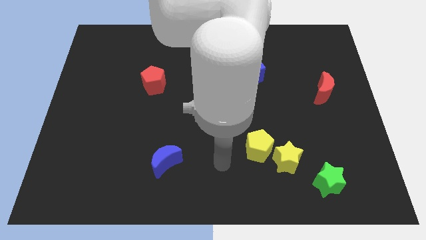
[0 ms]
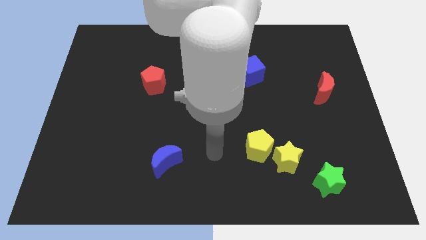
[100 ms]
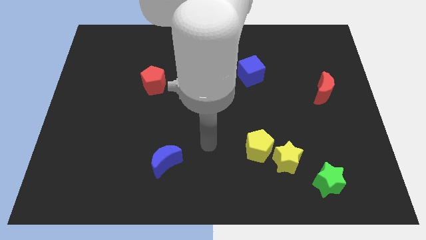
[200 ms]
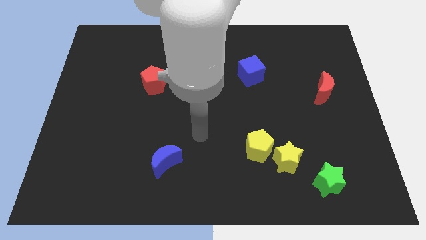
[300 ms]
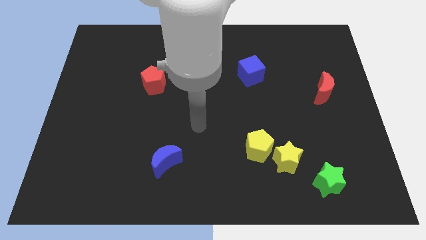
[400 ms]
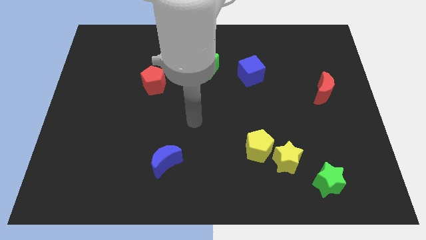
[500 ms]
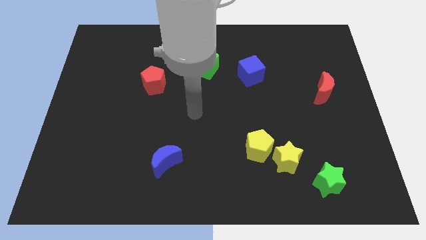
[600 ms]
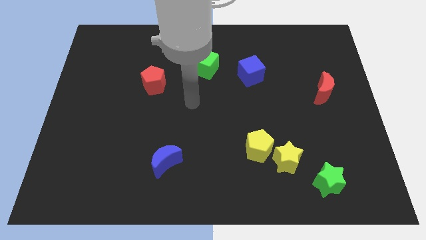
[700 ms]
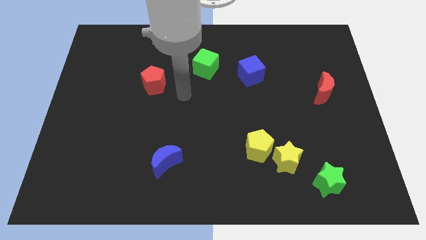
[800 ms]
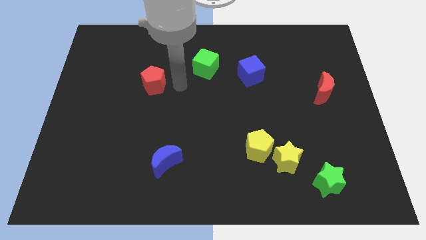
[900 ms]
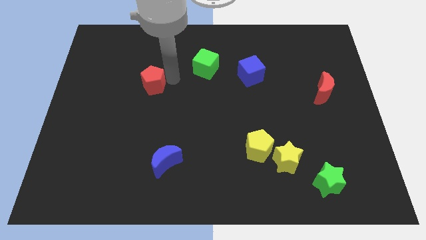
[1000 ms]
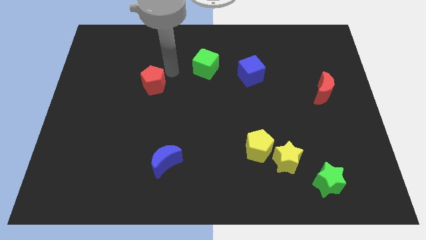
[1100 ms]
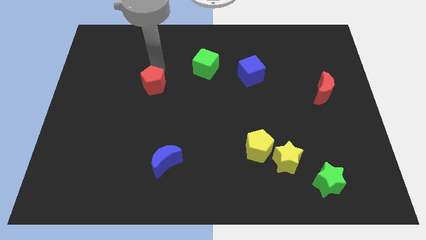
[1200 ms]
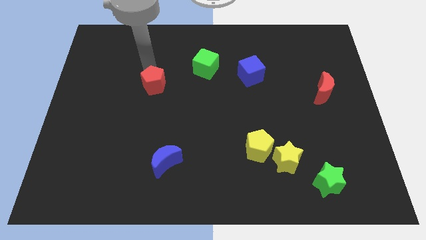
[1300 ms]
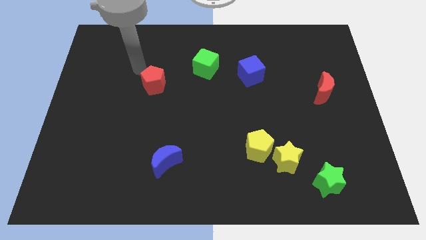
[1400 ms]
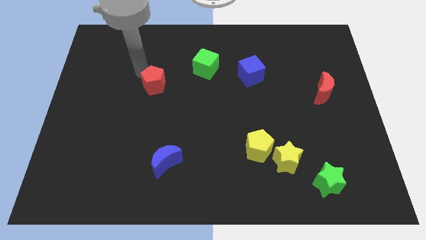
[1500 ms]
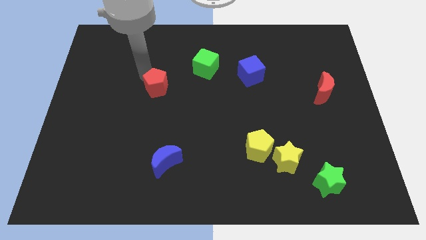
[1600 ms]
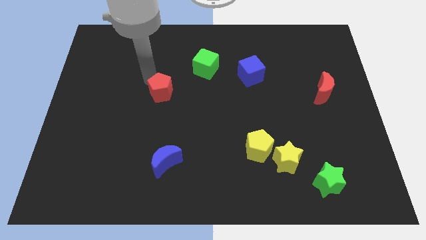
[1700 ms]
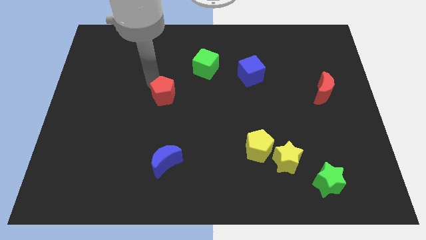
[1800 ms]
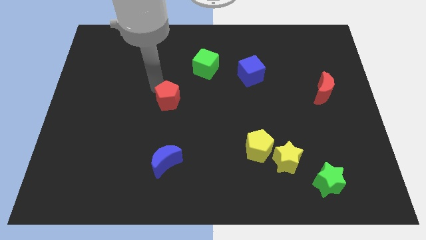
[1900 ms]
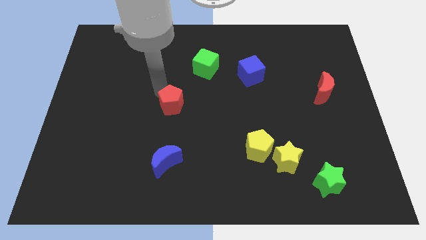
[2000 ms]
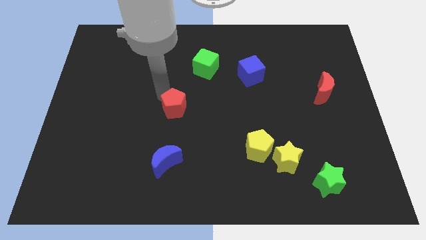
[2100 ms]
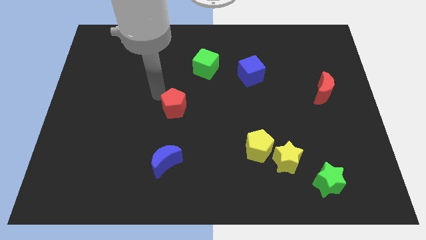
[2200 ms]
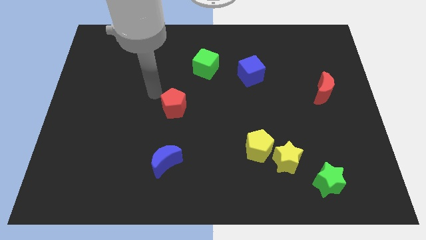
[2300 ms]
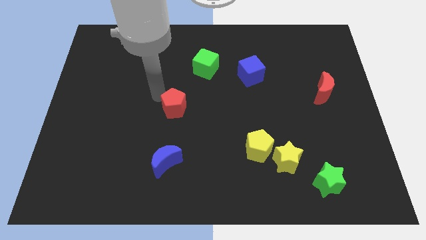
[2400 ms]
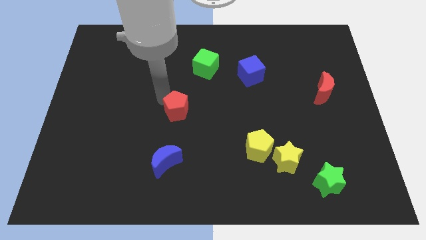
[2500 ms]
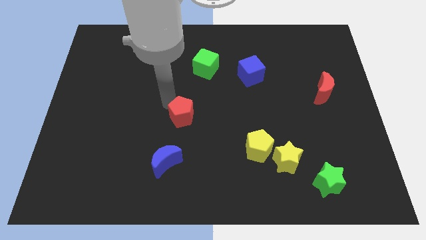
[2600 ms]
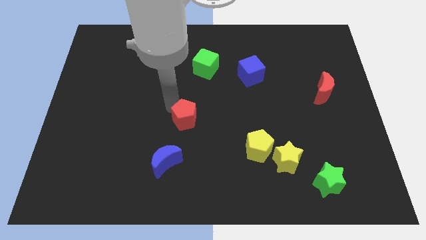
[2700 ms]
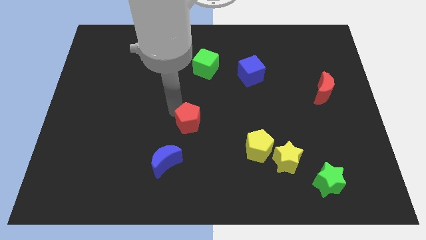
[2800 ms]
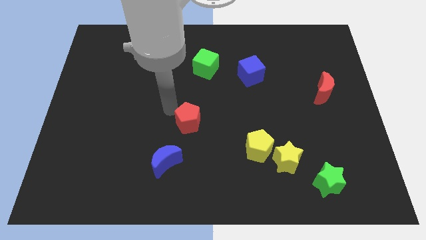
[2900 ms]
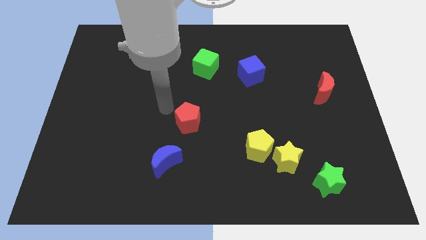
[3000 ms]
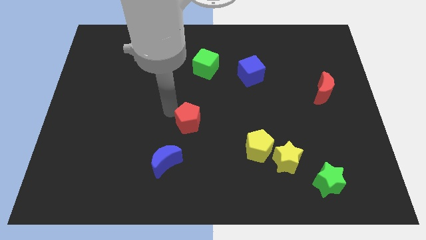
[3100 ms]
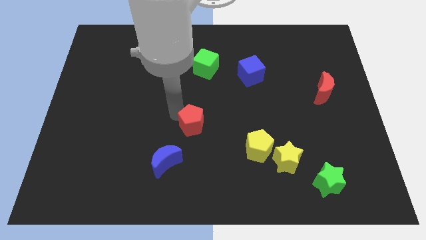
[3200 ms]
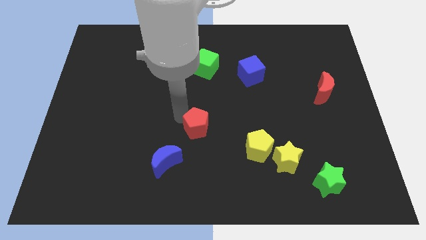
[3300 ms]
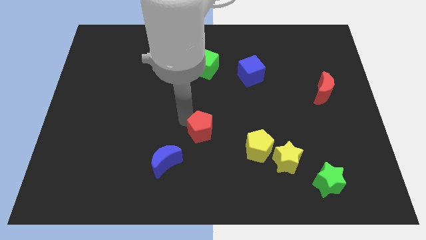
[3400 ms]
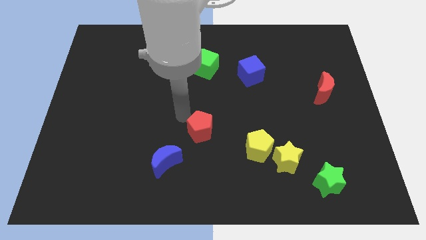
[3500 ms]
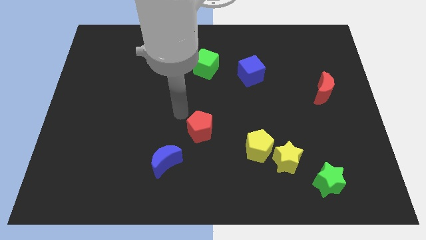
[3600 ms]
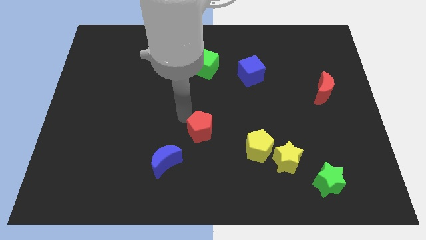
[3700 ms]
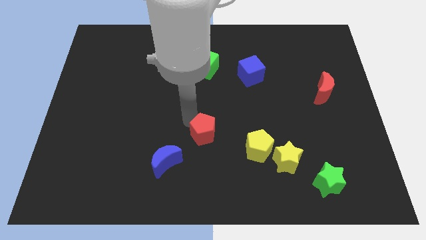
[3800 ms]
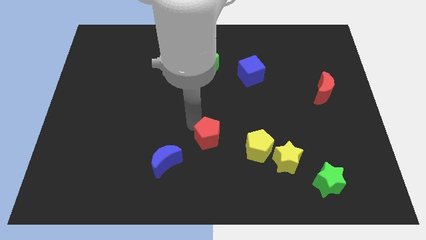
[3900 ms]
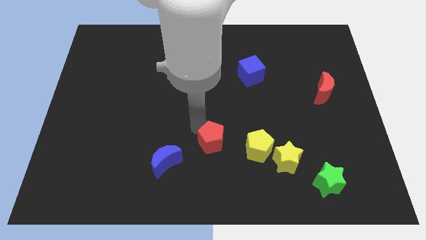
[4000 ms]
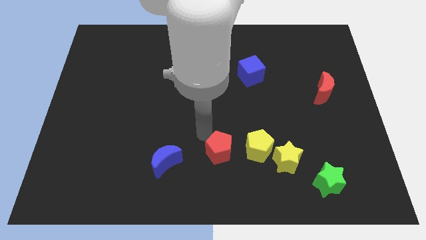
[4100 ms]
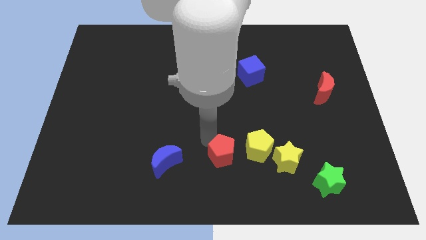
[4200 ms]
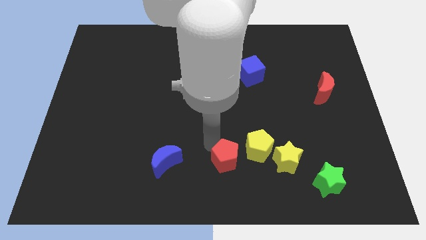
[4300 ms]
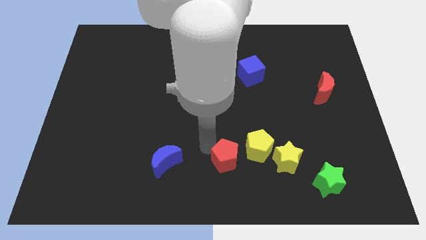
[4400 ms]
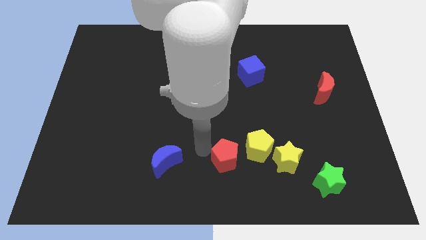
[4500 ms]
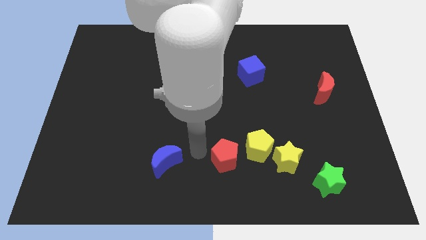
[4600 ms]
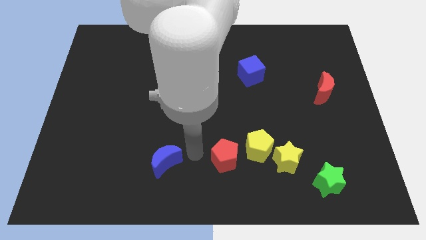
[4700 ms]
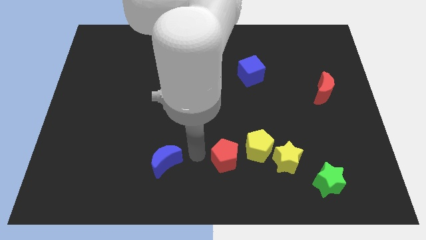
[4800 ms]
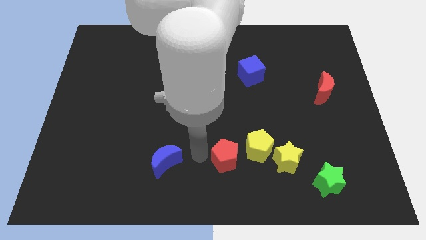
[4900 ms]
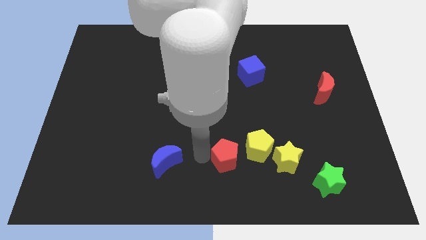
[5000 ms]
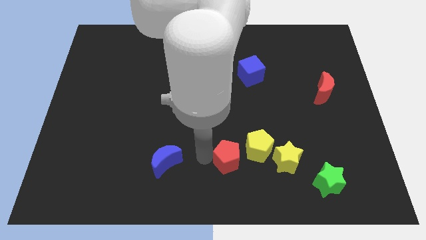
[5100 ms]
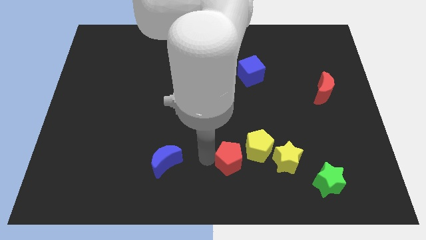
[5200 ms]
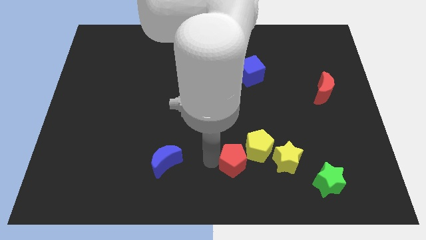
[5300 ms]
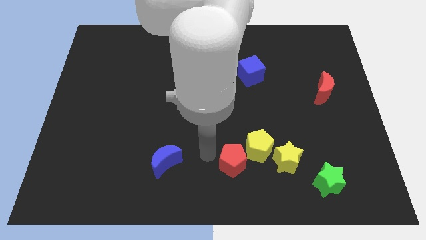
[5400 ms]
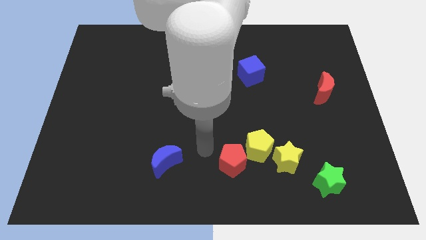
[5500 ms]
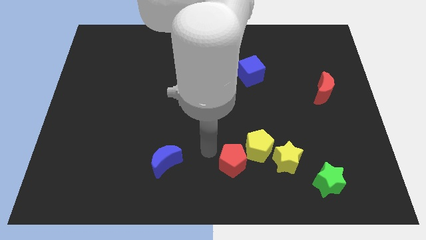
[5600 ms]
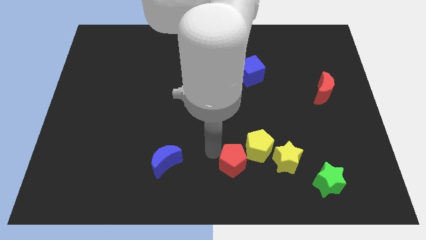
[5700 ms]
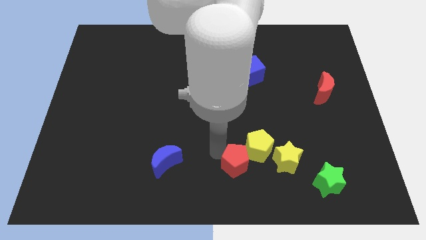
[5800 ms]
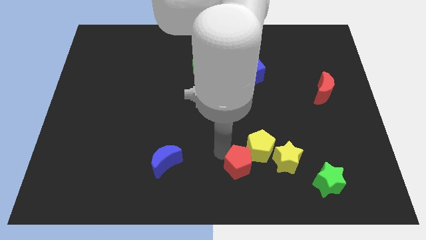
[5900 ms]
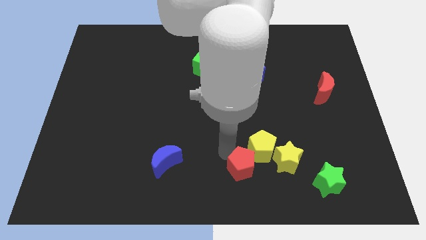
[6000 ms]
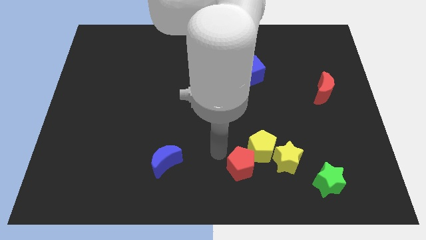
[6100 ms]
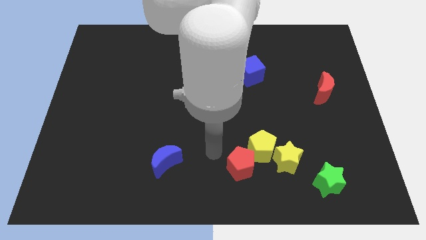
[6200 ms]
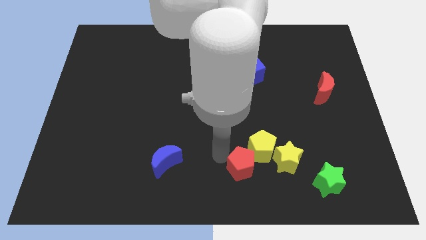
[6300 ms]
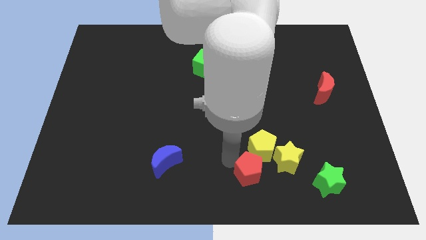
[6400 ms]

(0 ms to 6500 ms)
put the red pentagon to the left side of the green star

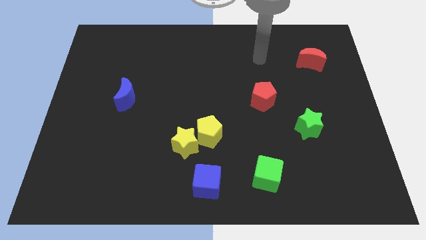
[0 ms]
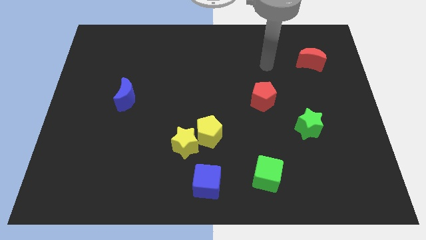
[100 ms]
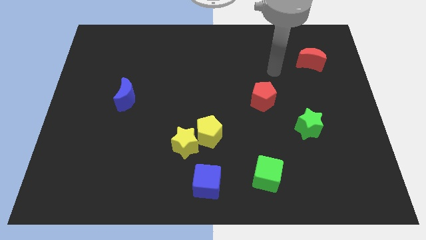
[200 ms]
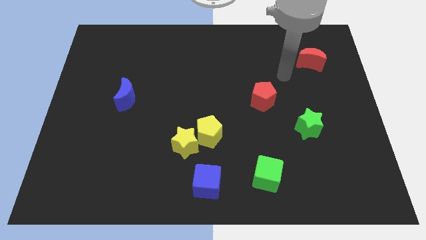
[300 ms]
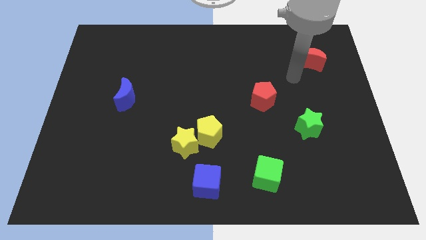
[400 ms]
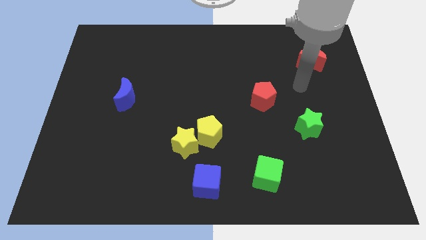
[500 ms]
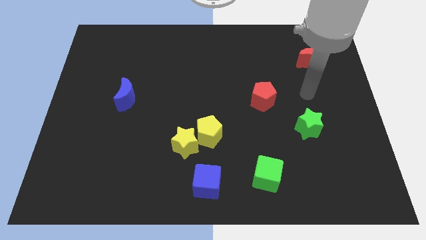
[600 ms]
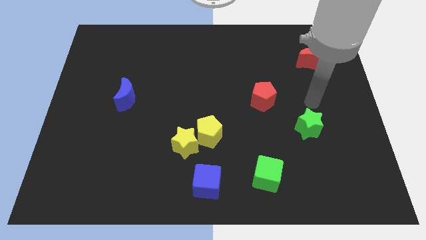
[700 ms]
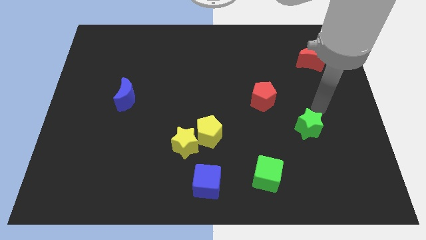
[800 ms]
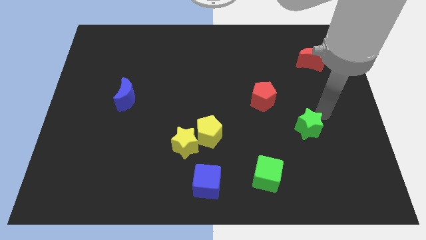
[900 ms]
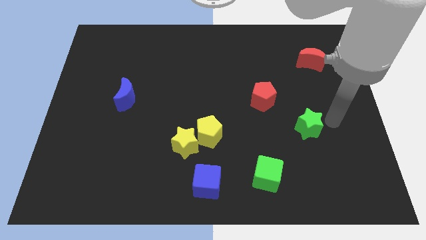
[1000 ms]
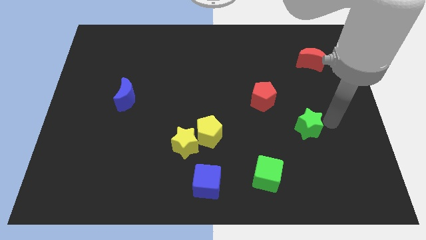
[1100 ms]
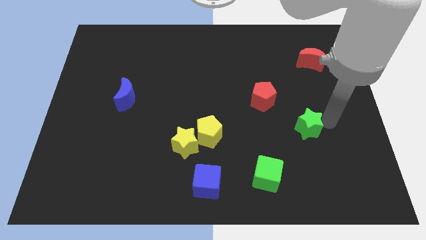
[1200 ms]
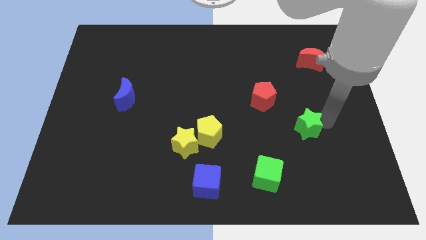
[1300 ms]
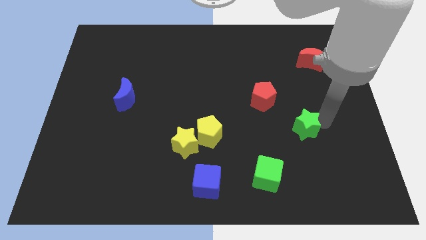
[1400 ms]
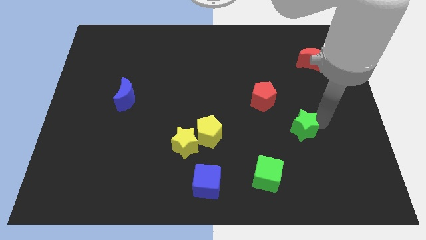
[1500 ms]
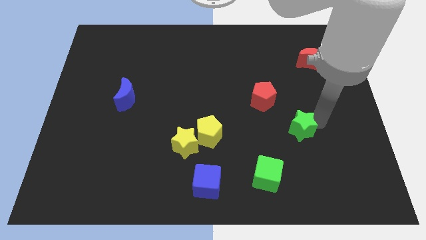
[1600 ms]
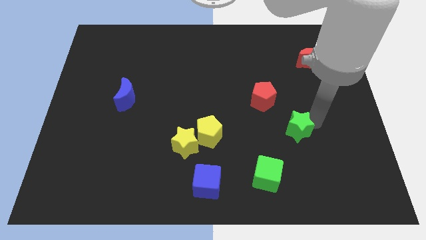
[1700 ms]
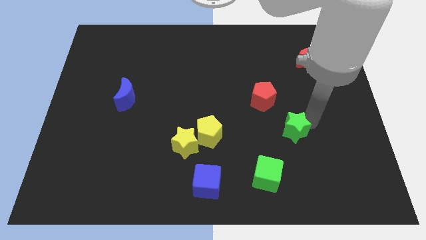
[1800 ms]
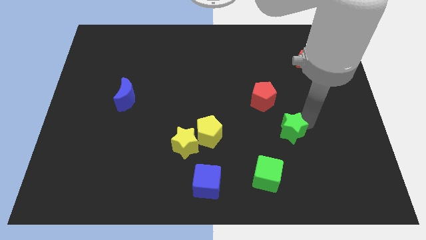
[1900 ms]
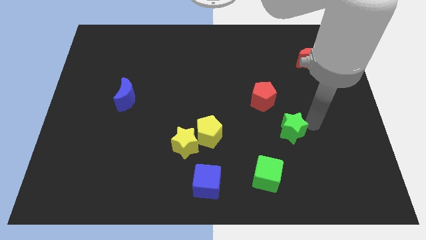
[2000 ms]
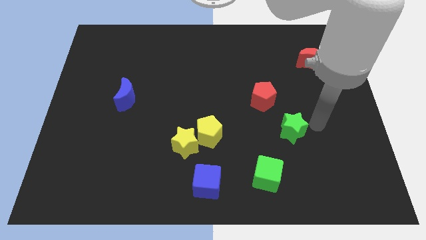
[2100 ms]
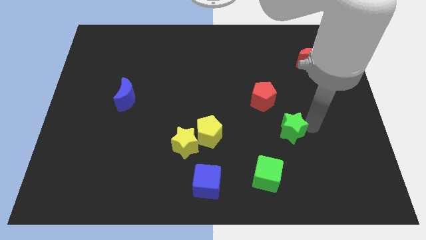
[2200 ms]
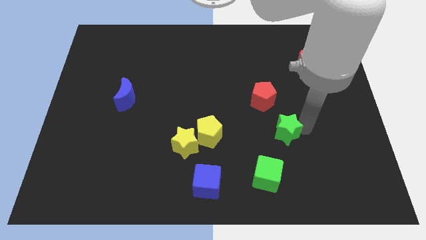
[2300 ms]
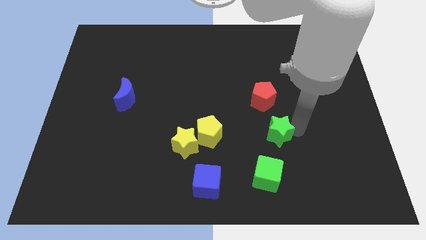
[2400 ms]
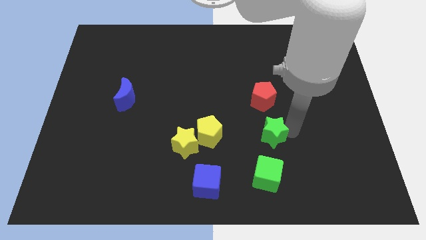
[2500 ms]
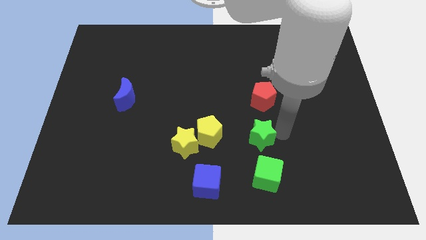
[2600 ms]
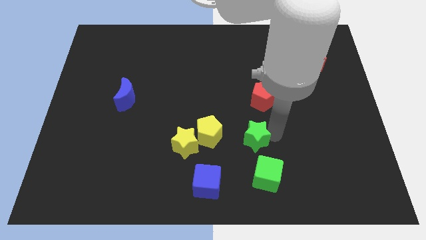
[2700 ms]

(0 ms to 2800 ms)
move the green star right of the yellow star
